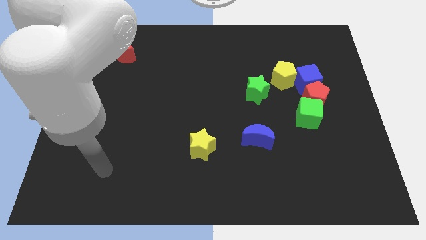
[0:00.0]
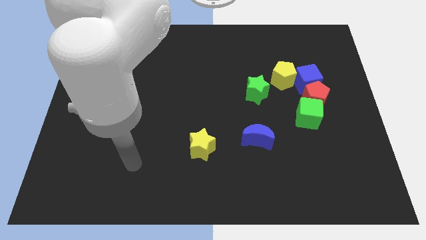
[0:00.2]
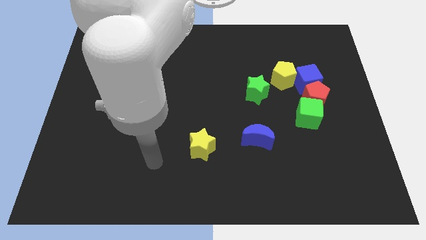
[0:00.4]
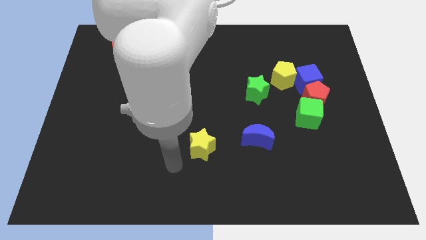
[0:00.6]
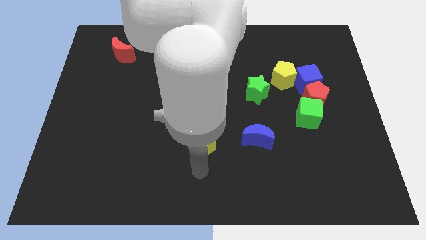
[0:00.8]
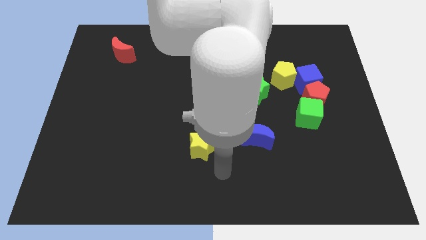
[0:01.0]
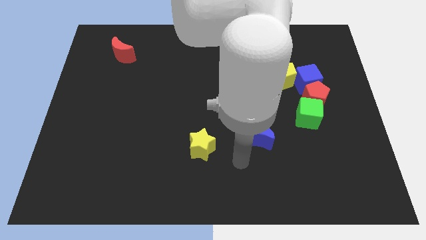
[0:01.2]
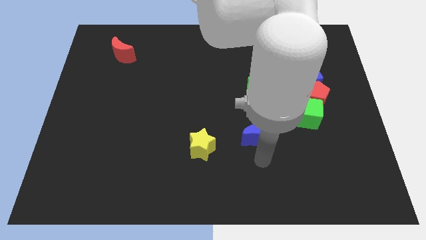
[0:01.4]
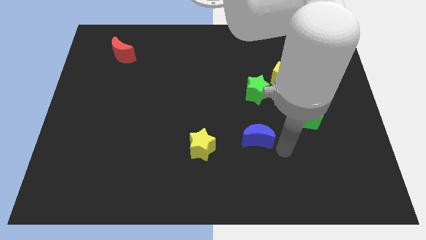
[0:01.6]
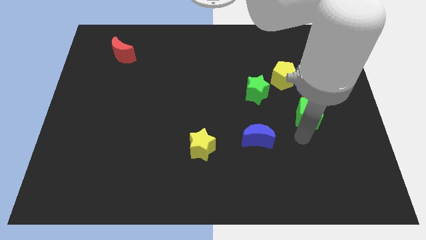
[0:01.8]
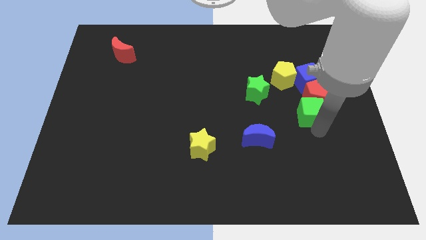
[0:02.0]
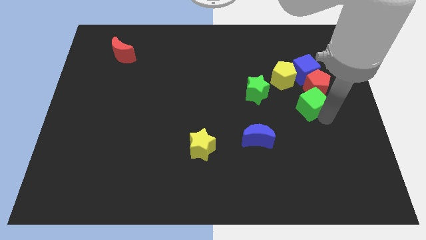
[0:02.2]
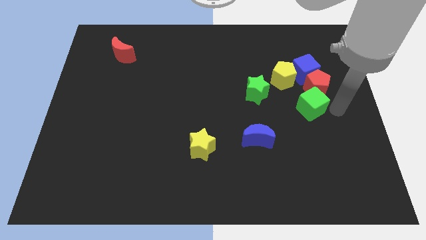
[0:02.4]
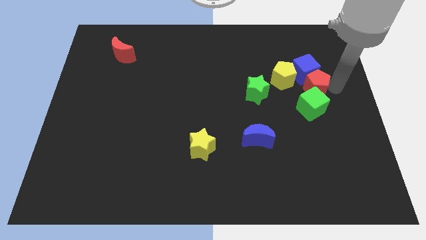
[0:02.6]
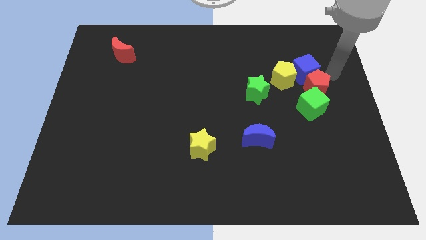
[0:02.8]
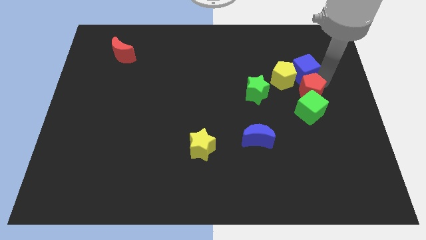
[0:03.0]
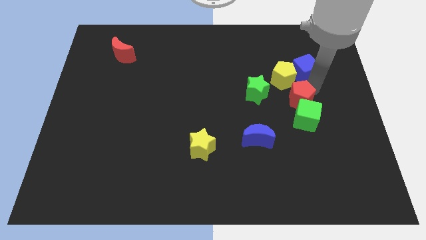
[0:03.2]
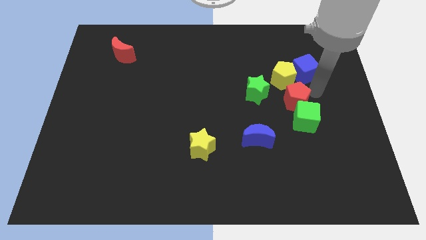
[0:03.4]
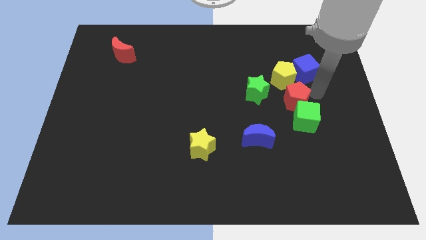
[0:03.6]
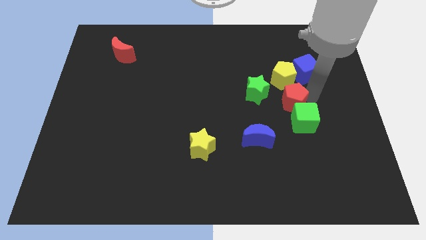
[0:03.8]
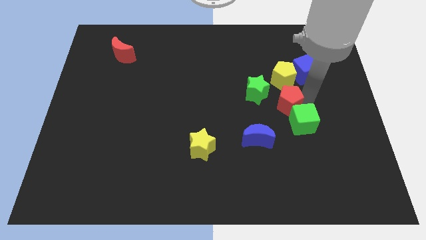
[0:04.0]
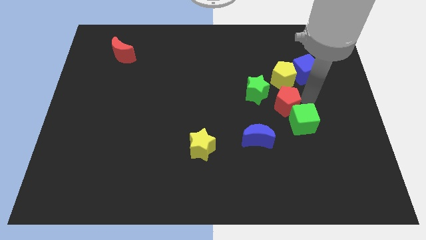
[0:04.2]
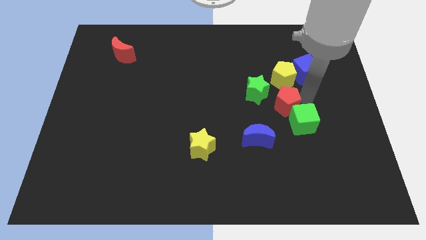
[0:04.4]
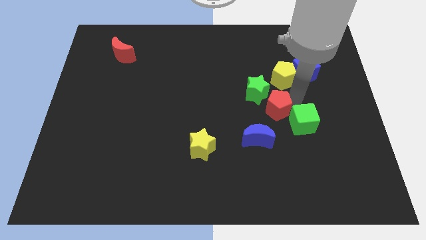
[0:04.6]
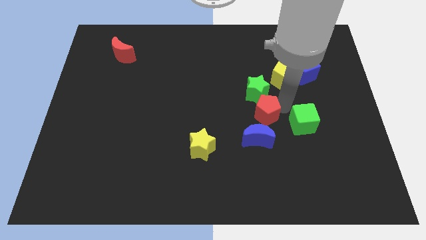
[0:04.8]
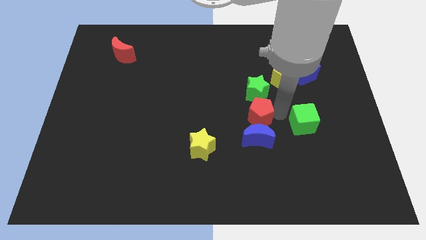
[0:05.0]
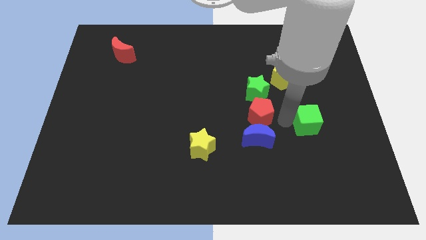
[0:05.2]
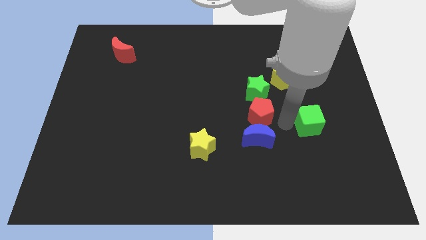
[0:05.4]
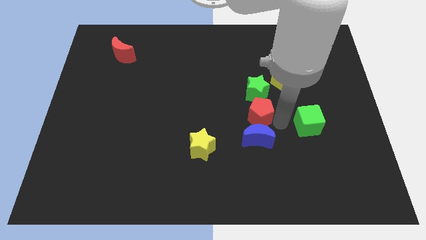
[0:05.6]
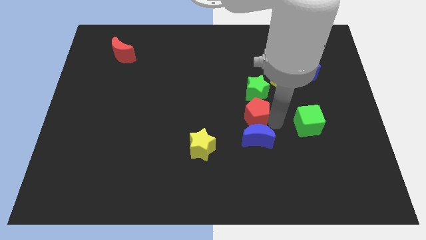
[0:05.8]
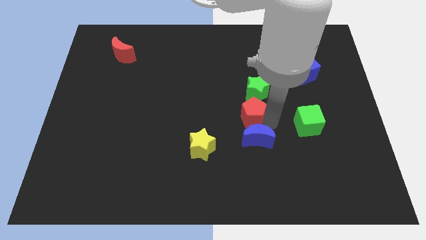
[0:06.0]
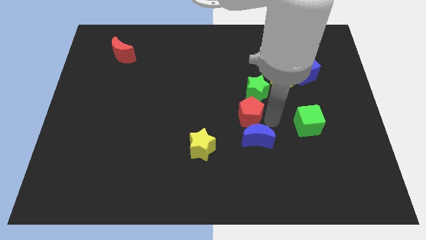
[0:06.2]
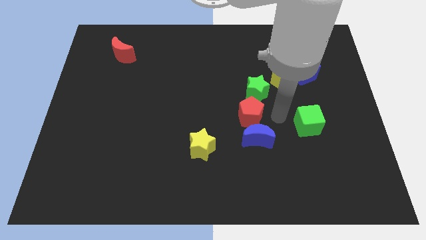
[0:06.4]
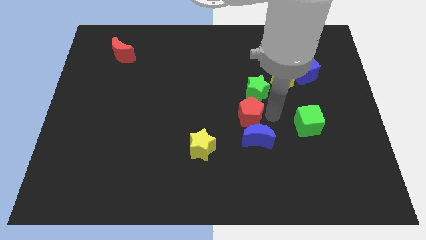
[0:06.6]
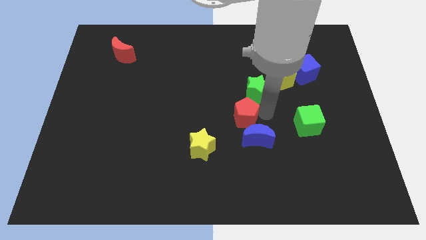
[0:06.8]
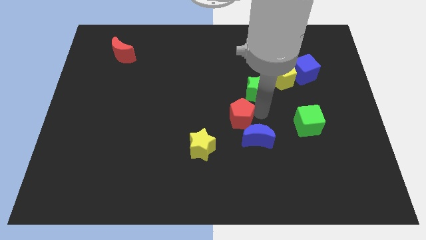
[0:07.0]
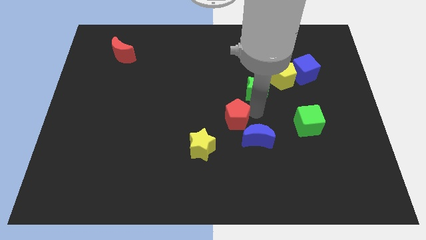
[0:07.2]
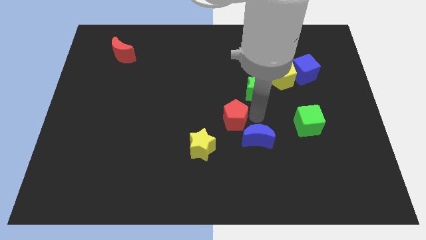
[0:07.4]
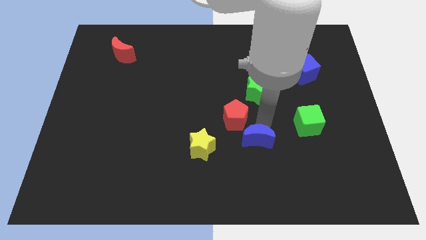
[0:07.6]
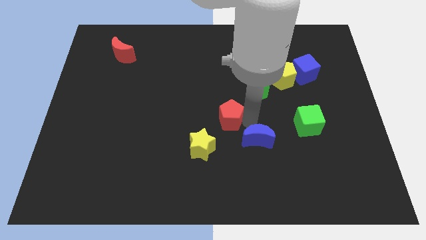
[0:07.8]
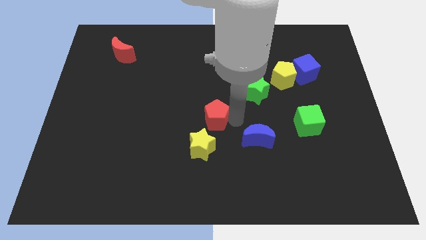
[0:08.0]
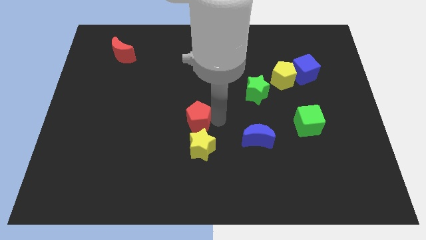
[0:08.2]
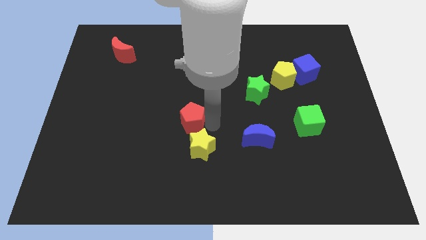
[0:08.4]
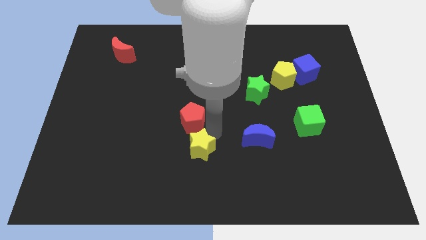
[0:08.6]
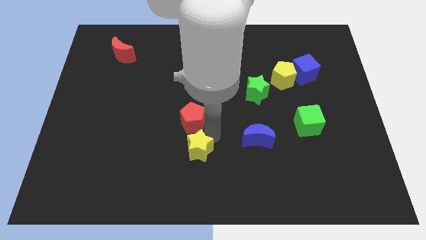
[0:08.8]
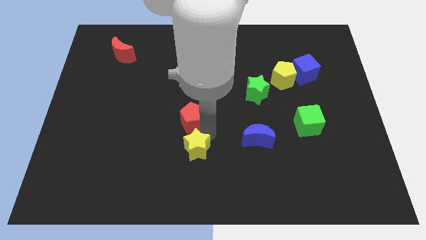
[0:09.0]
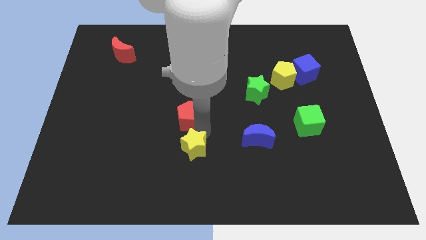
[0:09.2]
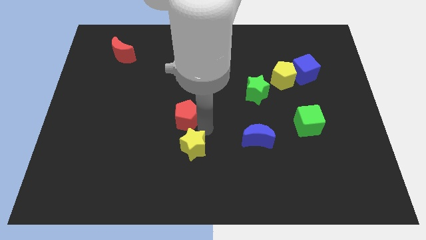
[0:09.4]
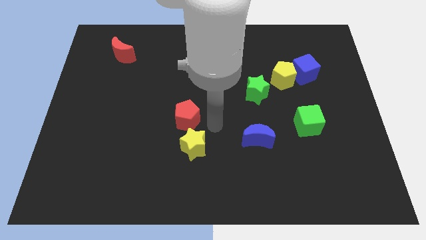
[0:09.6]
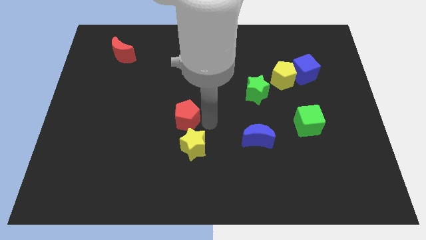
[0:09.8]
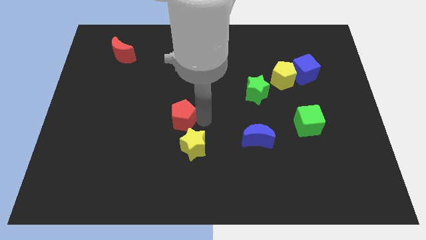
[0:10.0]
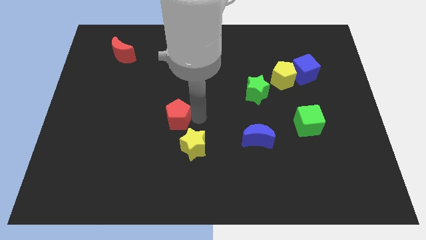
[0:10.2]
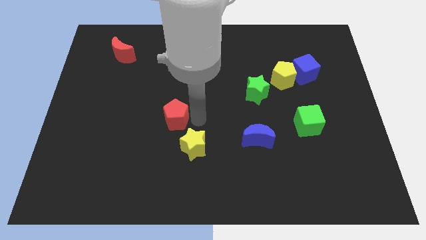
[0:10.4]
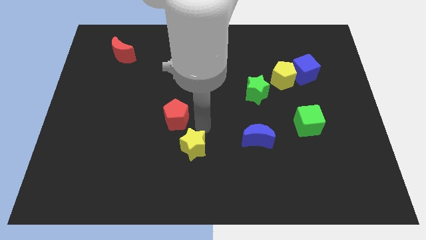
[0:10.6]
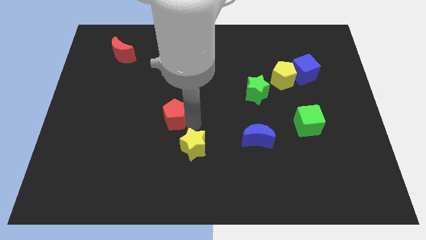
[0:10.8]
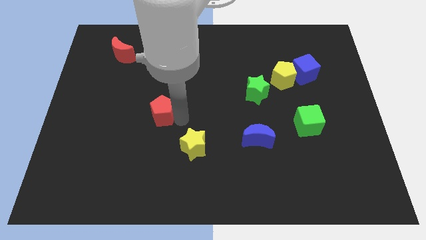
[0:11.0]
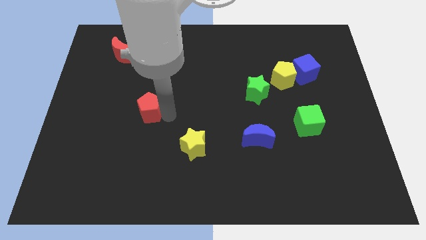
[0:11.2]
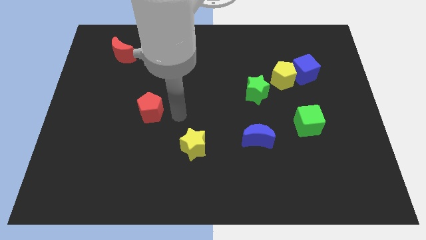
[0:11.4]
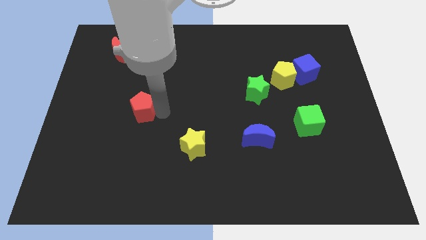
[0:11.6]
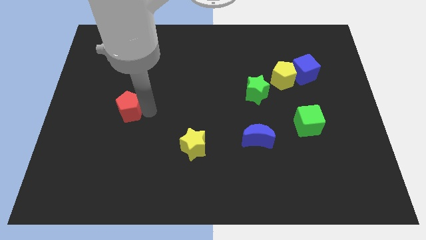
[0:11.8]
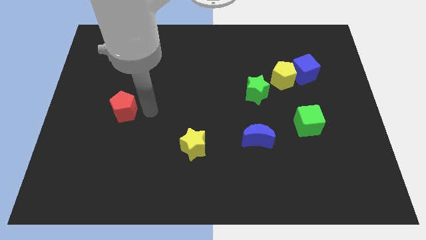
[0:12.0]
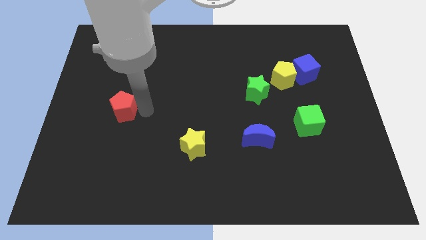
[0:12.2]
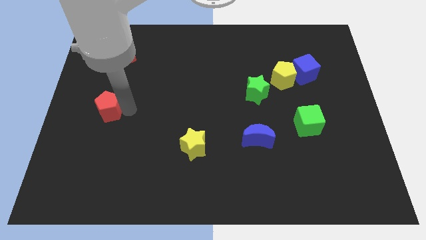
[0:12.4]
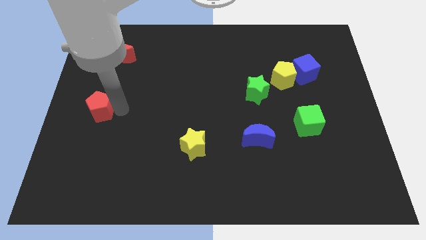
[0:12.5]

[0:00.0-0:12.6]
push the red pentagon to the center left
